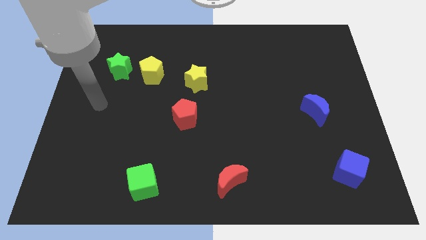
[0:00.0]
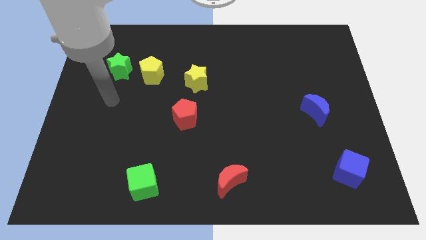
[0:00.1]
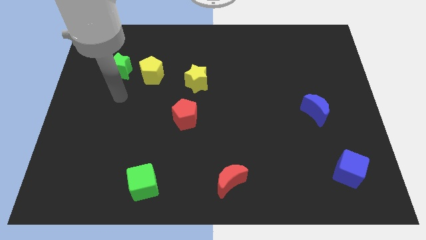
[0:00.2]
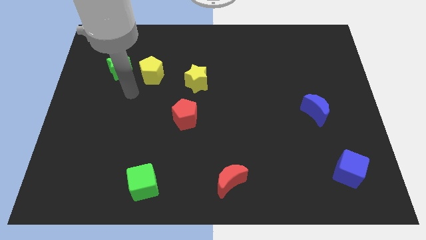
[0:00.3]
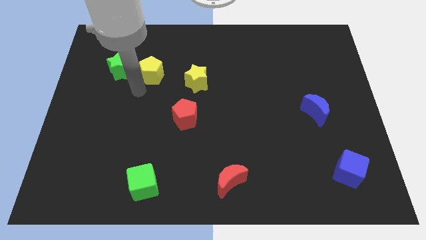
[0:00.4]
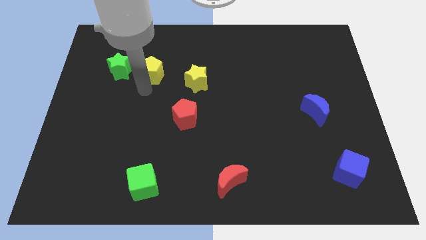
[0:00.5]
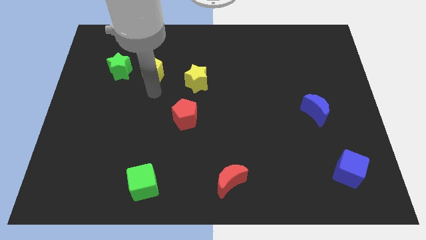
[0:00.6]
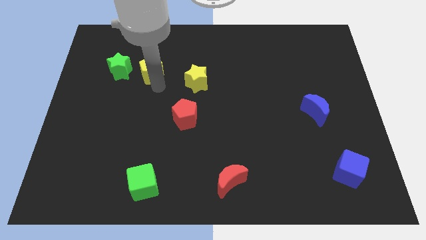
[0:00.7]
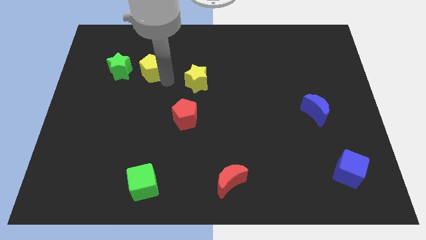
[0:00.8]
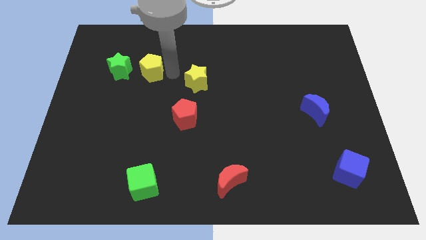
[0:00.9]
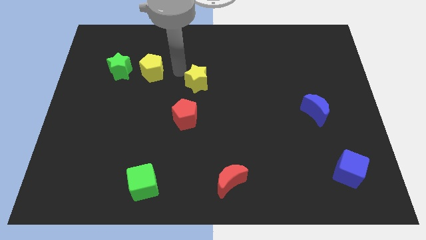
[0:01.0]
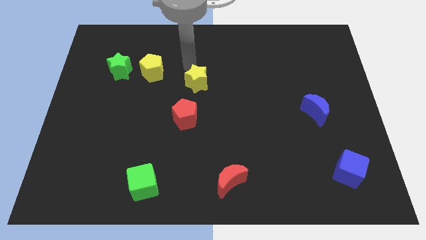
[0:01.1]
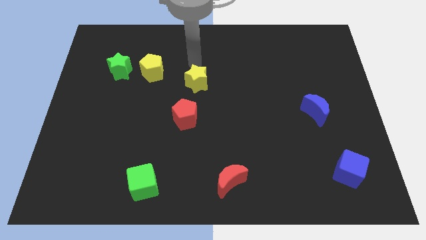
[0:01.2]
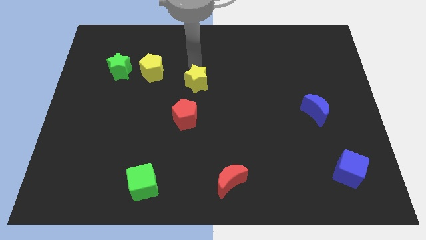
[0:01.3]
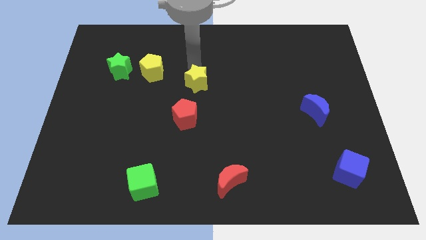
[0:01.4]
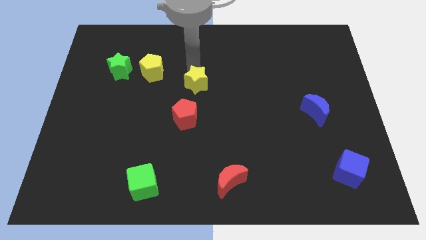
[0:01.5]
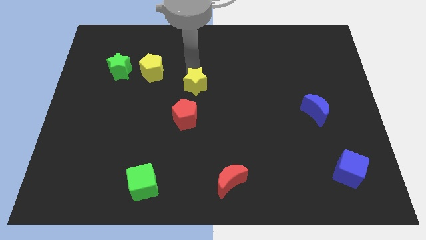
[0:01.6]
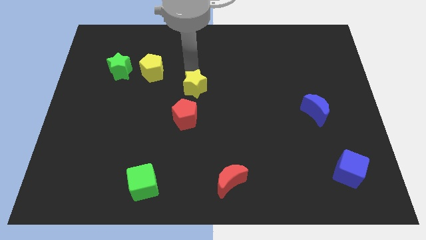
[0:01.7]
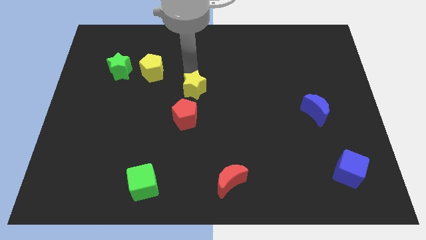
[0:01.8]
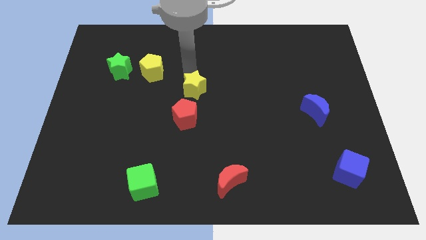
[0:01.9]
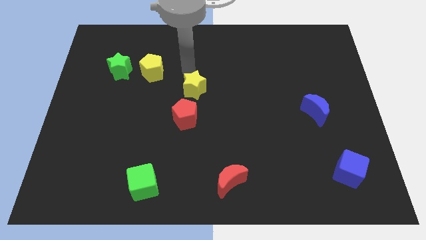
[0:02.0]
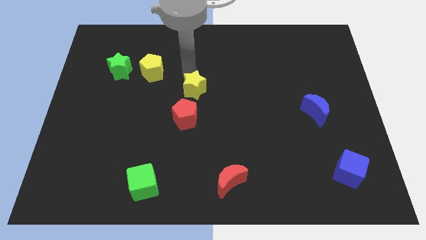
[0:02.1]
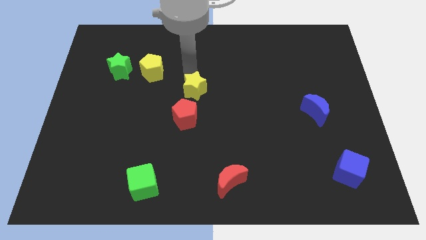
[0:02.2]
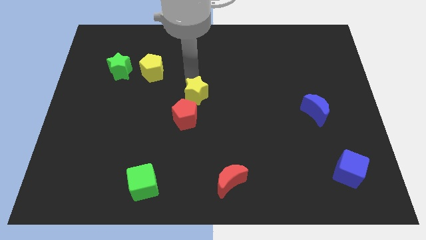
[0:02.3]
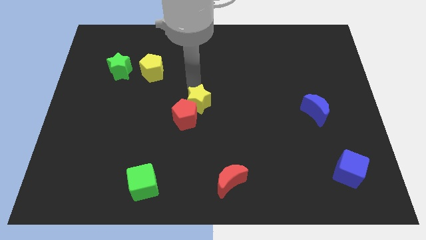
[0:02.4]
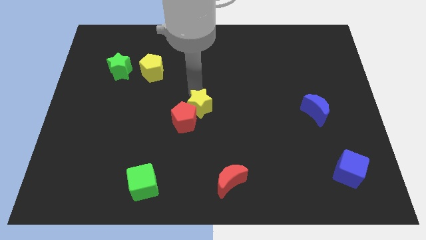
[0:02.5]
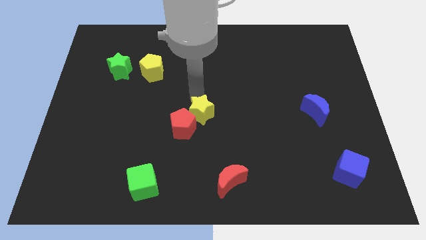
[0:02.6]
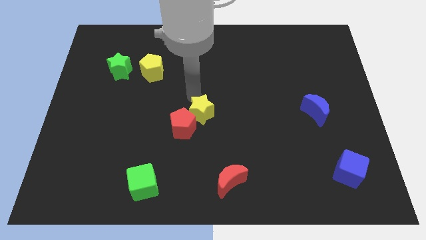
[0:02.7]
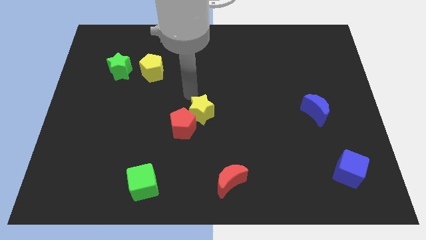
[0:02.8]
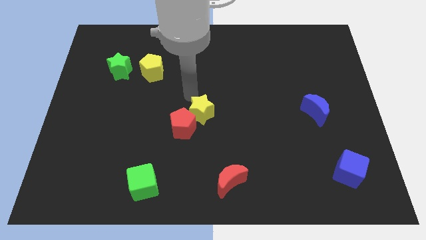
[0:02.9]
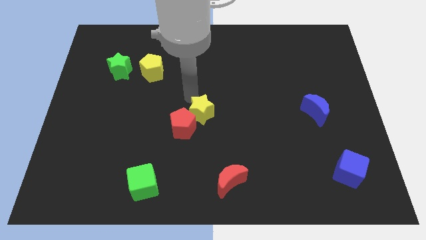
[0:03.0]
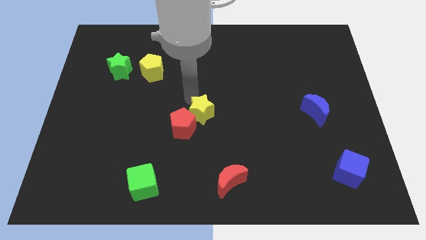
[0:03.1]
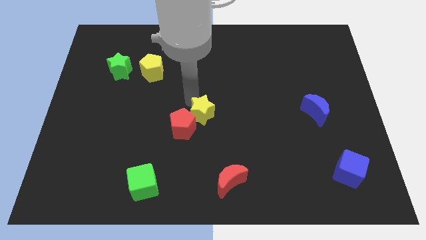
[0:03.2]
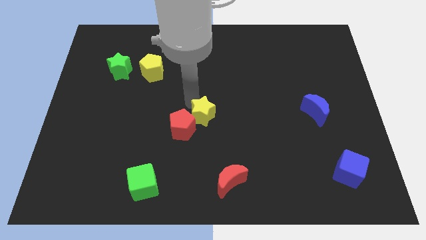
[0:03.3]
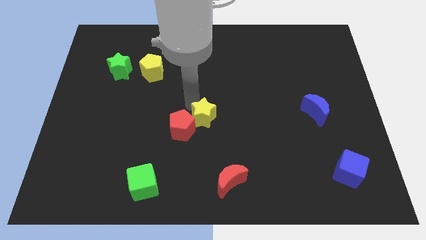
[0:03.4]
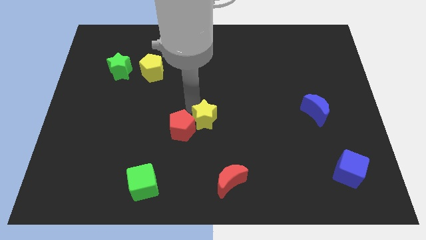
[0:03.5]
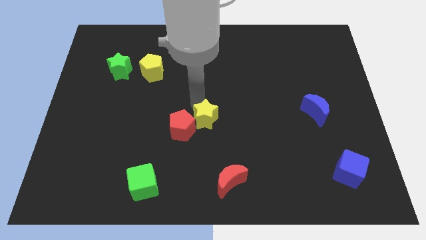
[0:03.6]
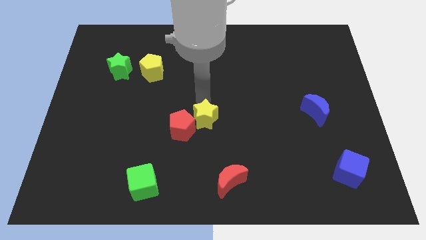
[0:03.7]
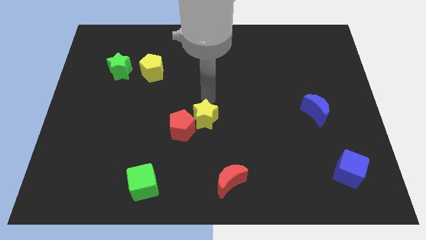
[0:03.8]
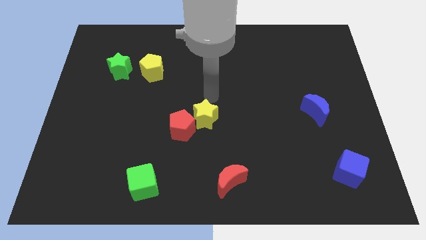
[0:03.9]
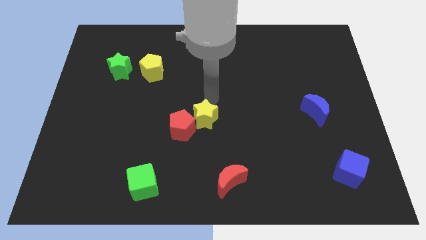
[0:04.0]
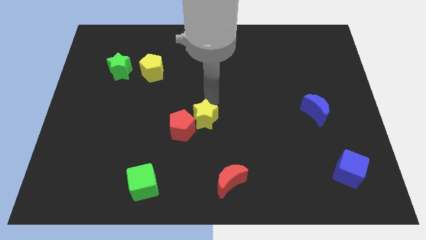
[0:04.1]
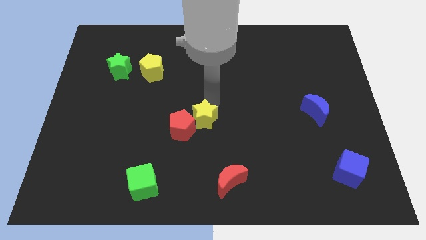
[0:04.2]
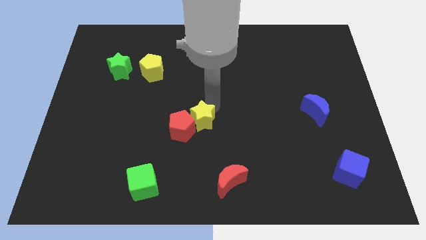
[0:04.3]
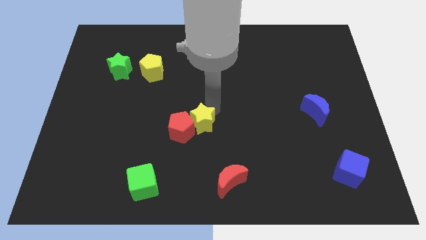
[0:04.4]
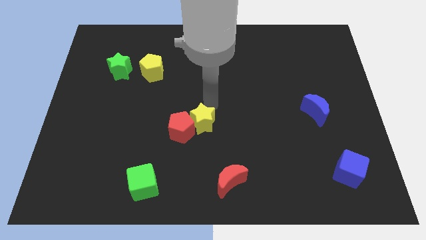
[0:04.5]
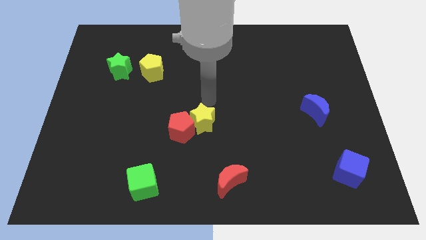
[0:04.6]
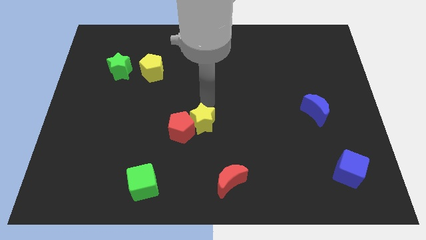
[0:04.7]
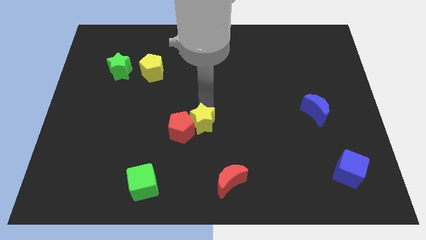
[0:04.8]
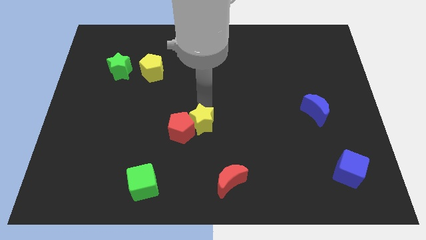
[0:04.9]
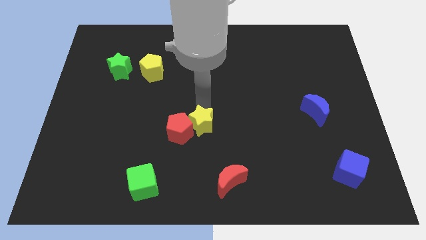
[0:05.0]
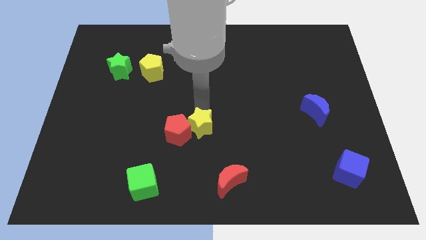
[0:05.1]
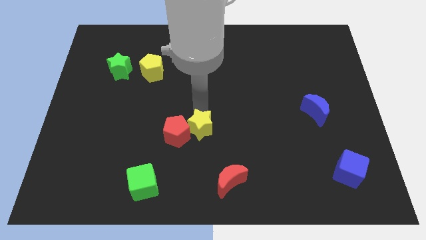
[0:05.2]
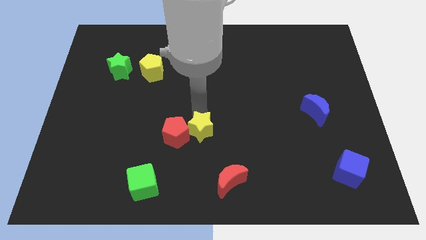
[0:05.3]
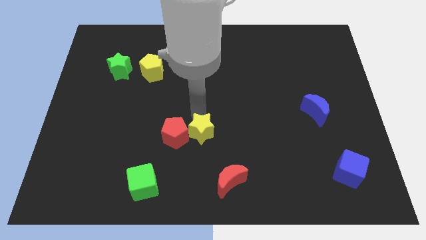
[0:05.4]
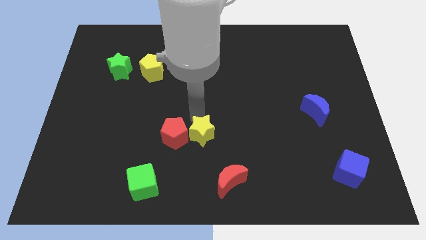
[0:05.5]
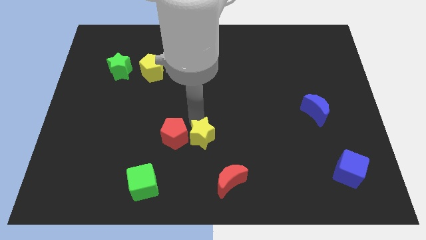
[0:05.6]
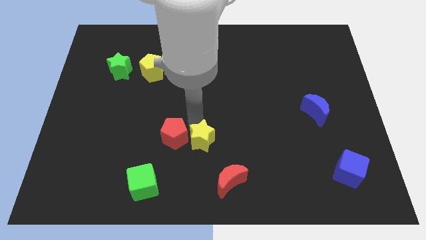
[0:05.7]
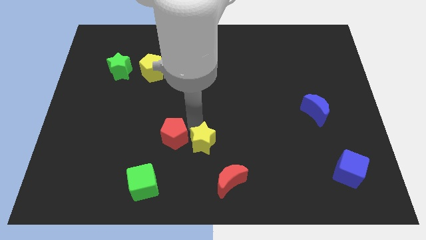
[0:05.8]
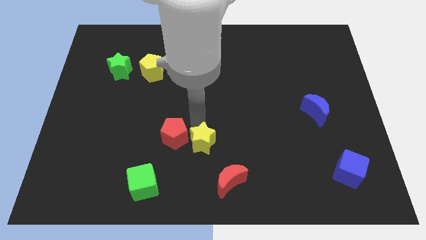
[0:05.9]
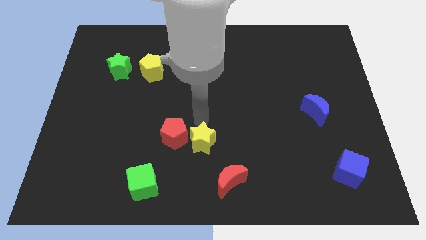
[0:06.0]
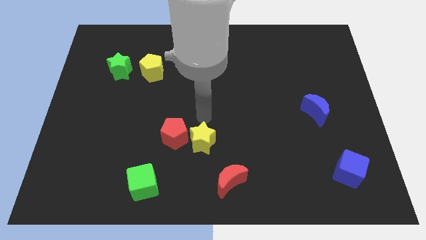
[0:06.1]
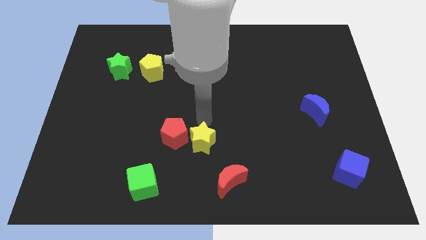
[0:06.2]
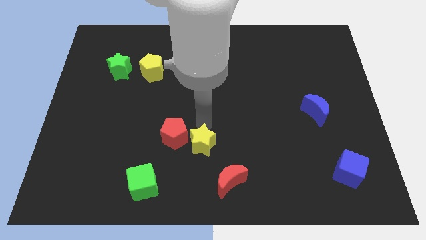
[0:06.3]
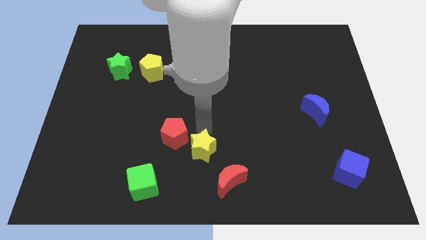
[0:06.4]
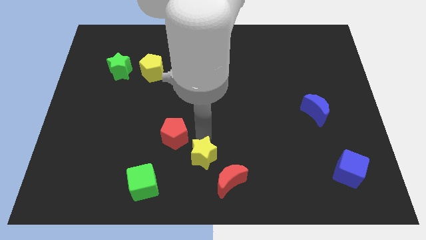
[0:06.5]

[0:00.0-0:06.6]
push the yellow star to the bottom side
